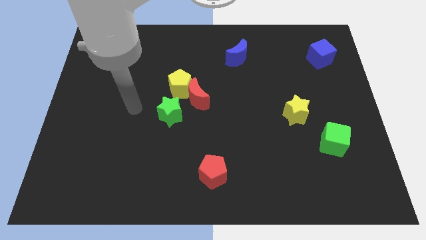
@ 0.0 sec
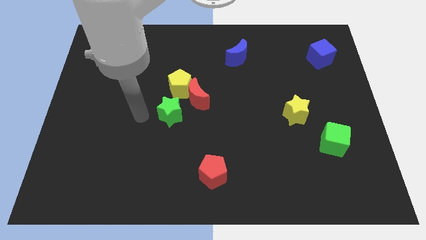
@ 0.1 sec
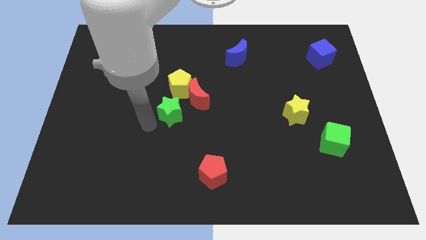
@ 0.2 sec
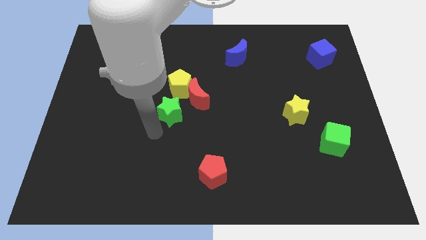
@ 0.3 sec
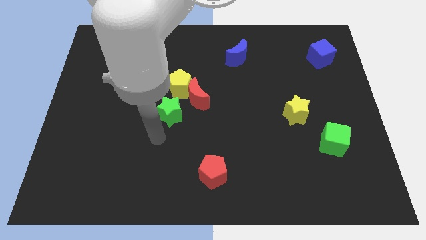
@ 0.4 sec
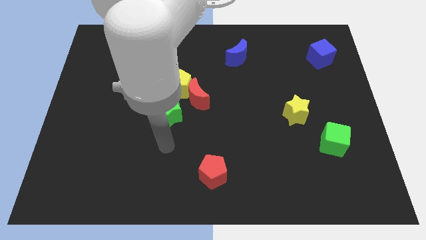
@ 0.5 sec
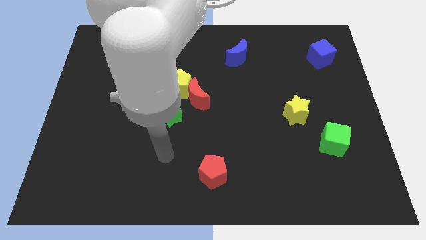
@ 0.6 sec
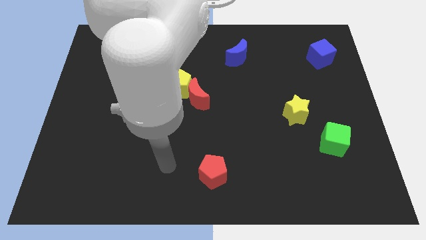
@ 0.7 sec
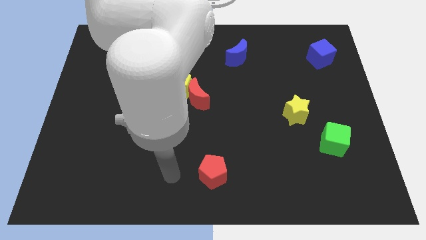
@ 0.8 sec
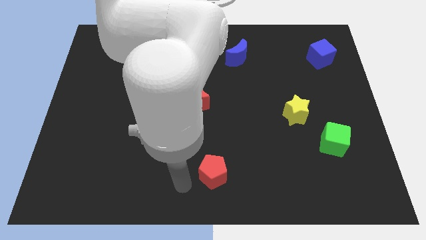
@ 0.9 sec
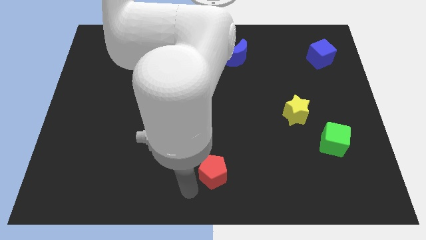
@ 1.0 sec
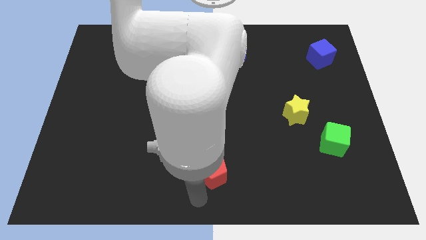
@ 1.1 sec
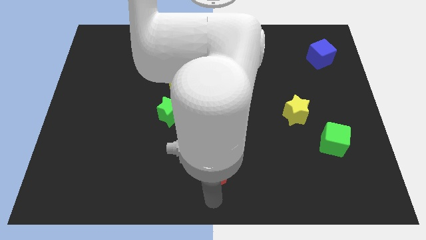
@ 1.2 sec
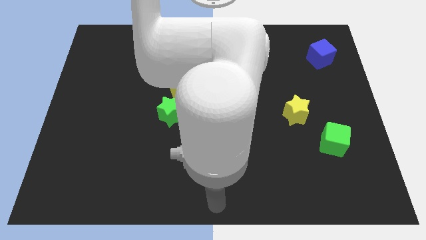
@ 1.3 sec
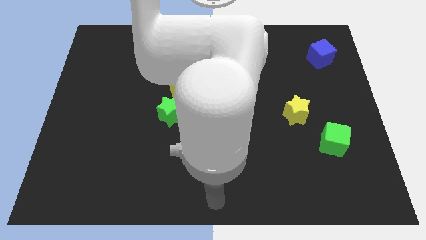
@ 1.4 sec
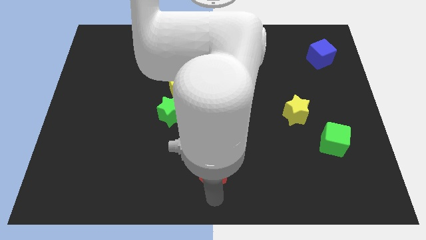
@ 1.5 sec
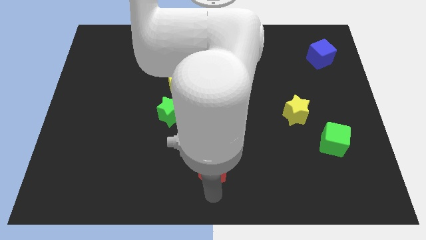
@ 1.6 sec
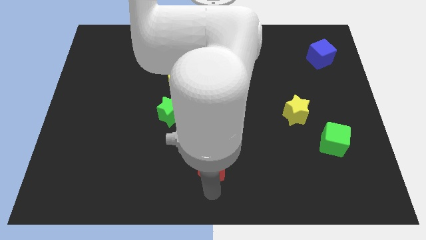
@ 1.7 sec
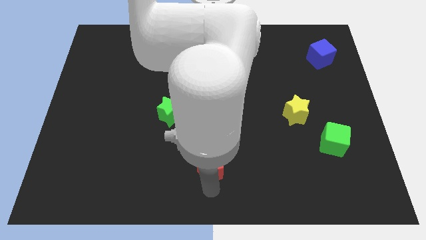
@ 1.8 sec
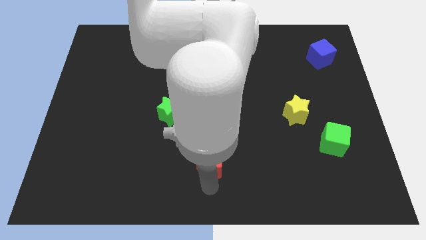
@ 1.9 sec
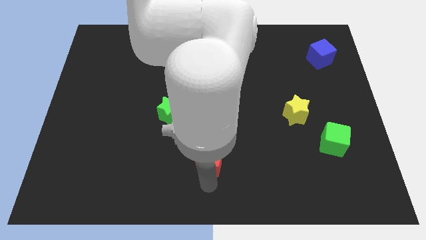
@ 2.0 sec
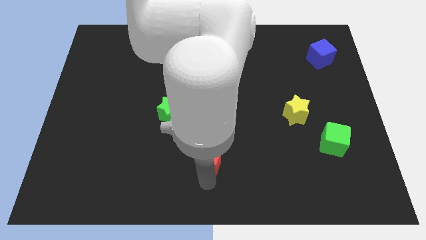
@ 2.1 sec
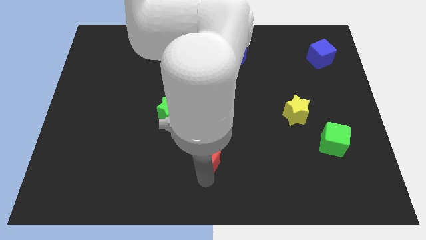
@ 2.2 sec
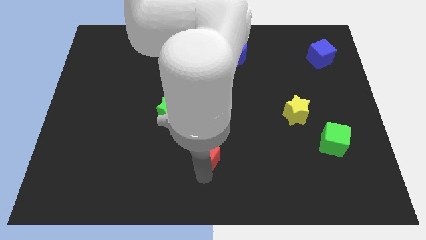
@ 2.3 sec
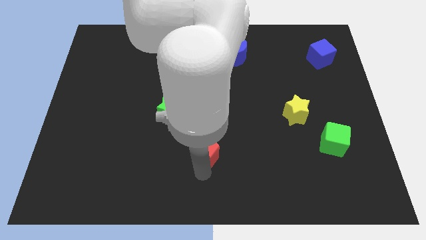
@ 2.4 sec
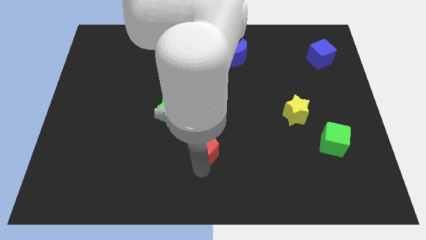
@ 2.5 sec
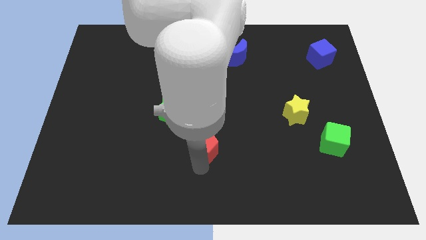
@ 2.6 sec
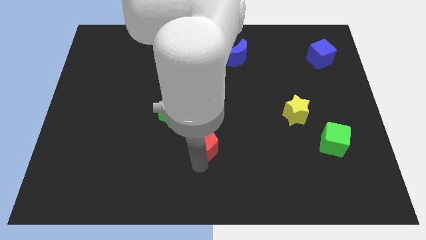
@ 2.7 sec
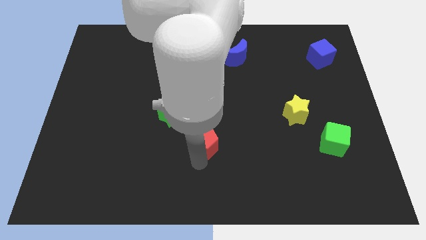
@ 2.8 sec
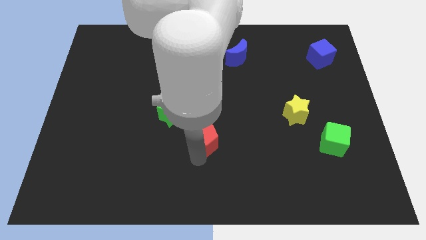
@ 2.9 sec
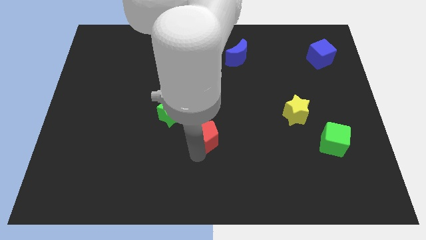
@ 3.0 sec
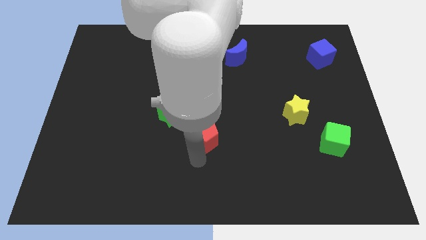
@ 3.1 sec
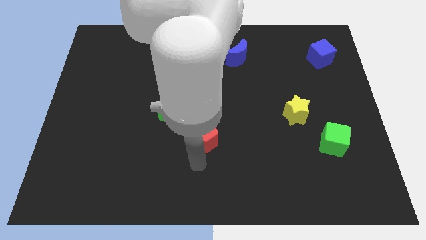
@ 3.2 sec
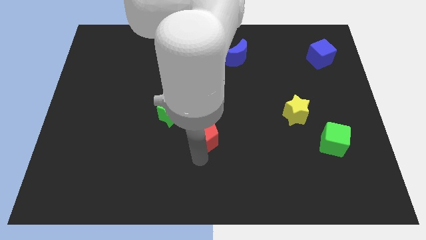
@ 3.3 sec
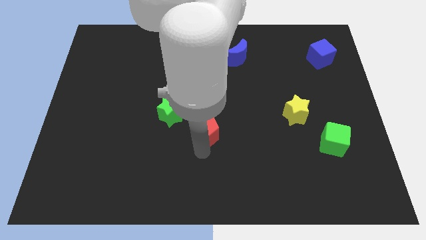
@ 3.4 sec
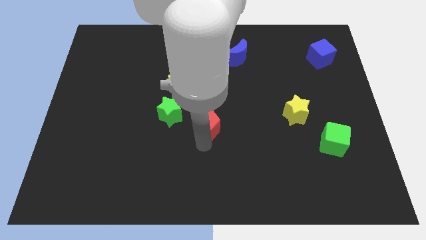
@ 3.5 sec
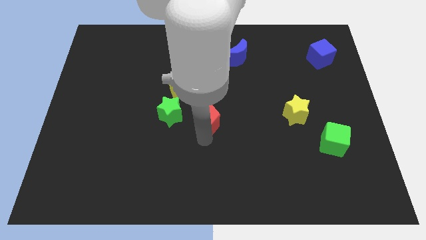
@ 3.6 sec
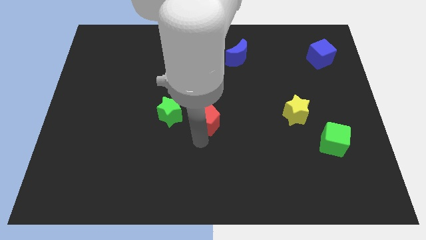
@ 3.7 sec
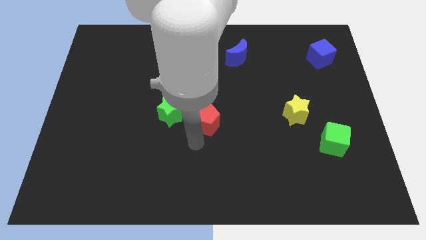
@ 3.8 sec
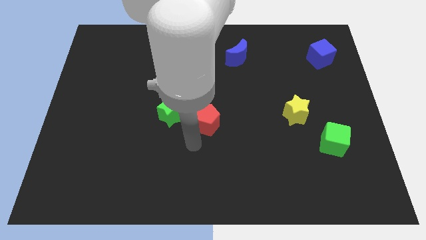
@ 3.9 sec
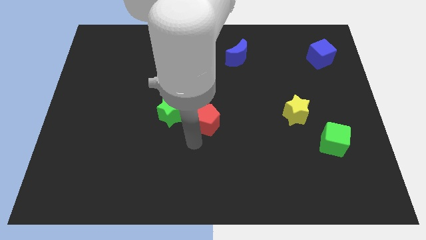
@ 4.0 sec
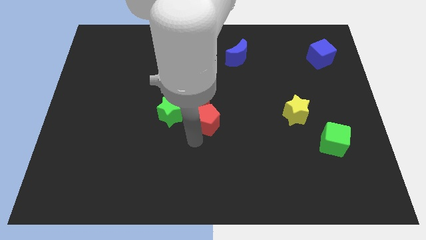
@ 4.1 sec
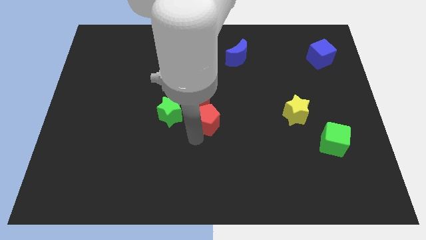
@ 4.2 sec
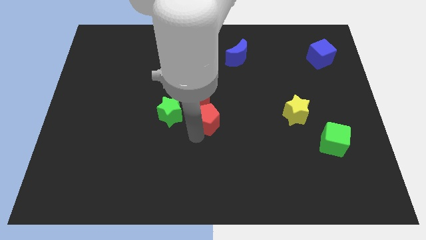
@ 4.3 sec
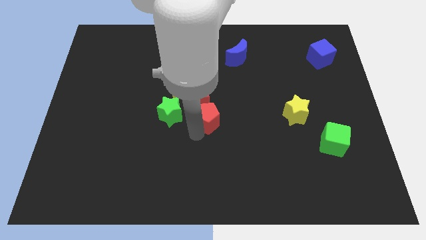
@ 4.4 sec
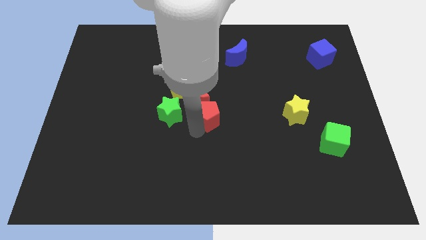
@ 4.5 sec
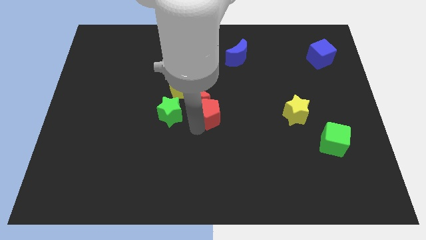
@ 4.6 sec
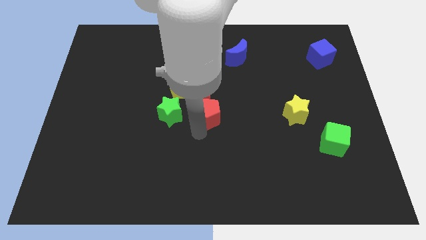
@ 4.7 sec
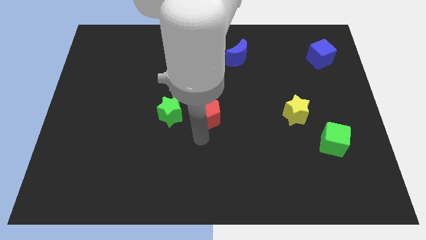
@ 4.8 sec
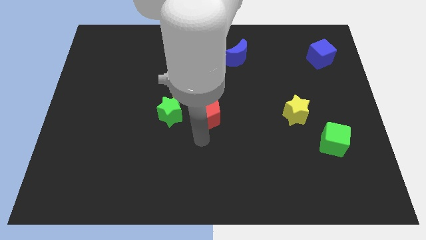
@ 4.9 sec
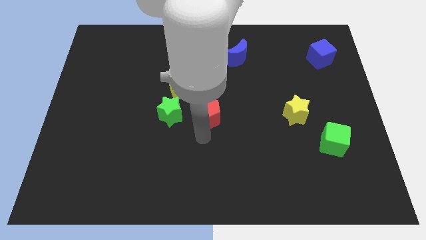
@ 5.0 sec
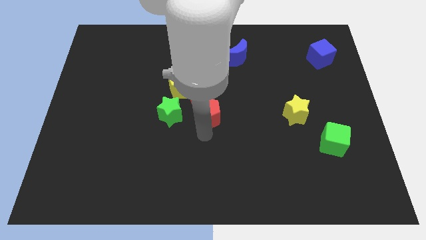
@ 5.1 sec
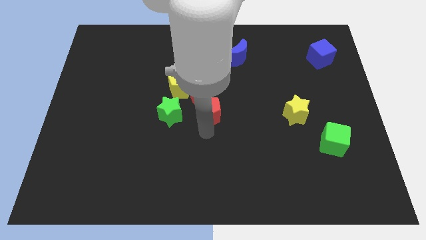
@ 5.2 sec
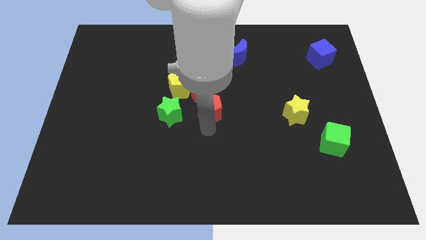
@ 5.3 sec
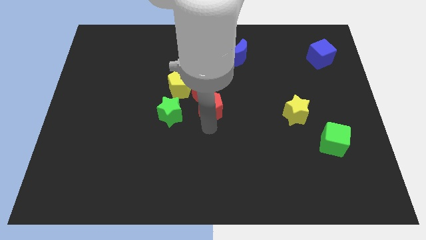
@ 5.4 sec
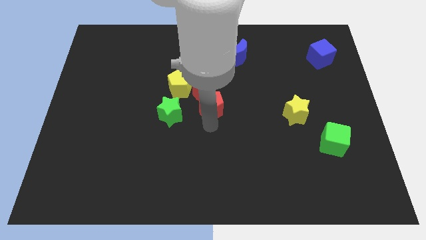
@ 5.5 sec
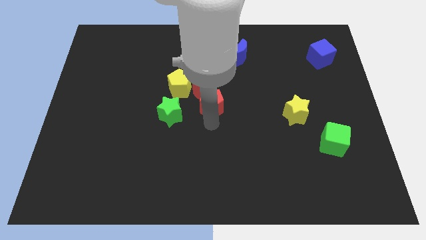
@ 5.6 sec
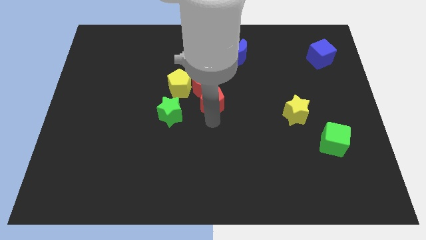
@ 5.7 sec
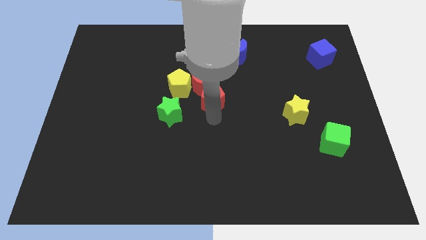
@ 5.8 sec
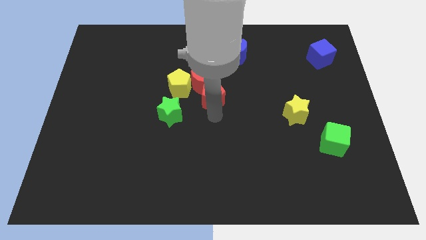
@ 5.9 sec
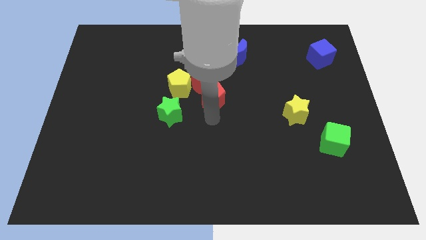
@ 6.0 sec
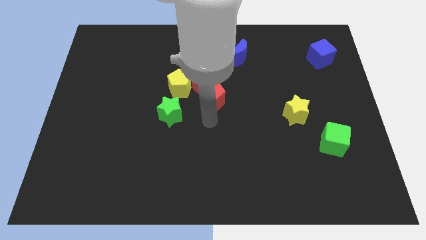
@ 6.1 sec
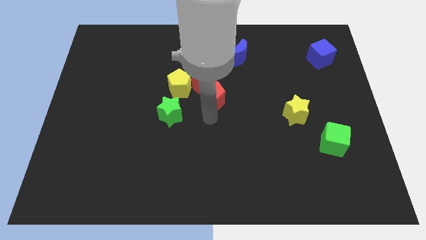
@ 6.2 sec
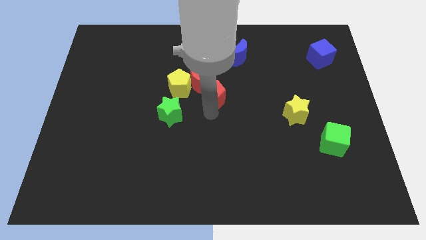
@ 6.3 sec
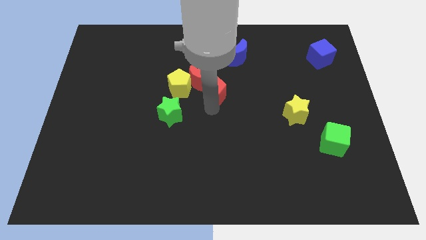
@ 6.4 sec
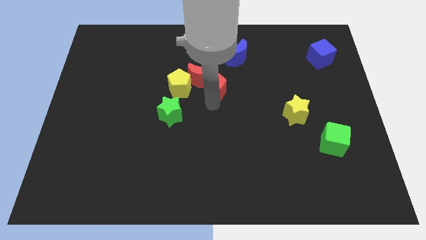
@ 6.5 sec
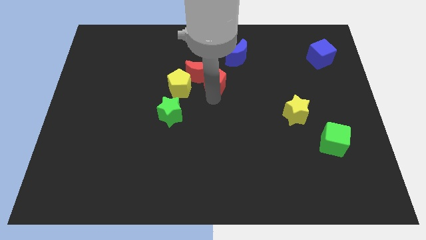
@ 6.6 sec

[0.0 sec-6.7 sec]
slide the red pentagon diagonally down and to the left of the blue moon

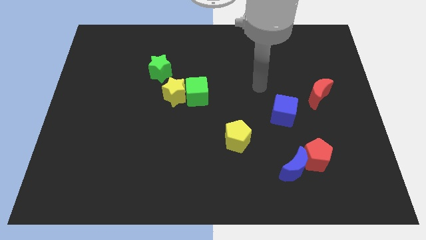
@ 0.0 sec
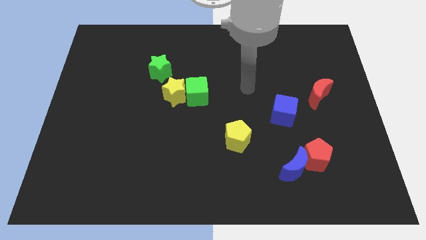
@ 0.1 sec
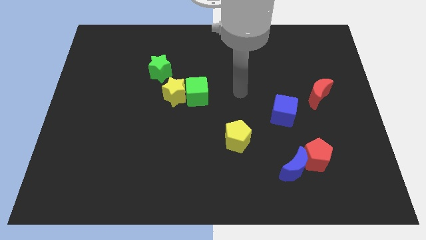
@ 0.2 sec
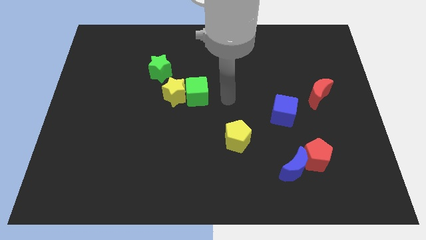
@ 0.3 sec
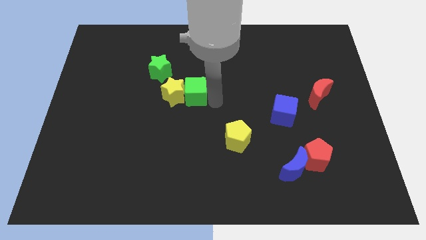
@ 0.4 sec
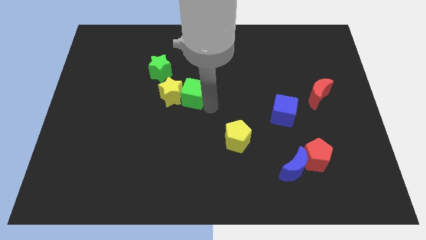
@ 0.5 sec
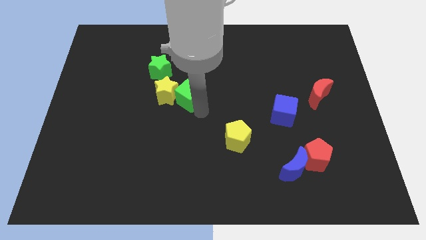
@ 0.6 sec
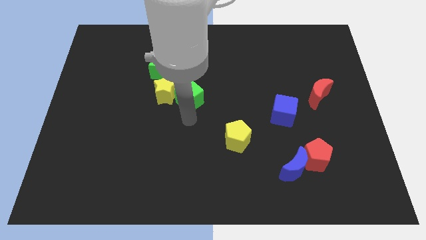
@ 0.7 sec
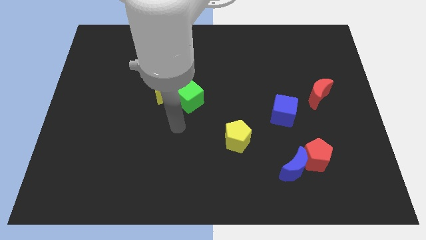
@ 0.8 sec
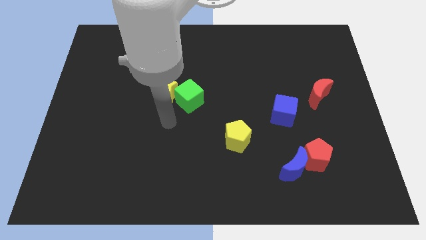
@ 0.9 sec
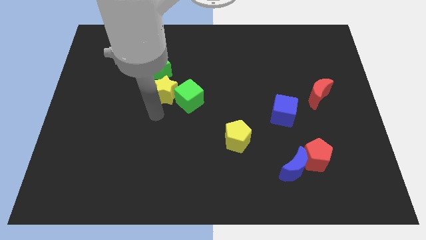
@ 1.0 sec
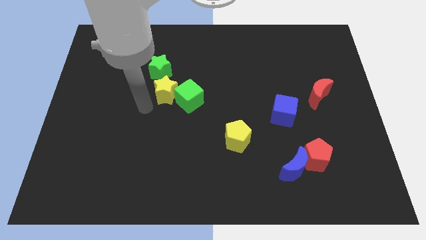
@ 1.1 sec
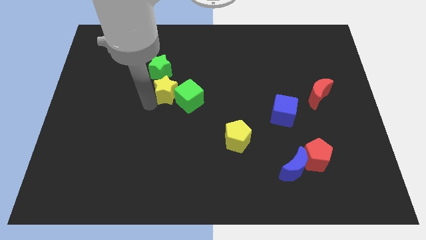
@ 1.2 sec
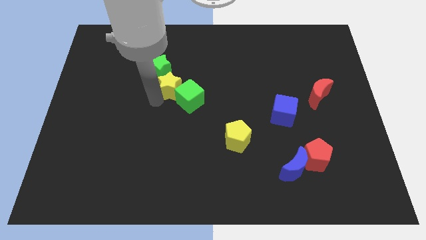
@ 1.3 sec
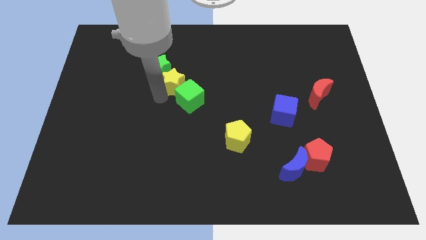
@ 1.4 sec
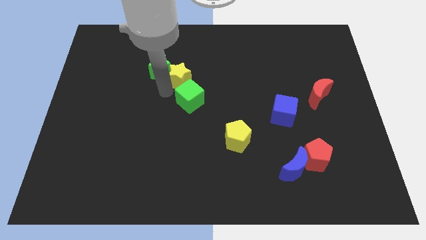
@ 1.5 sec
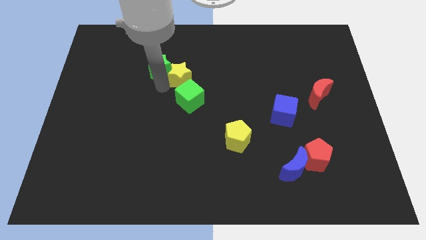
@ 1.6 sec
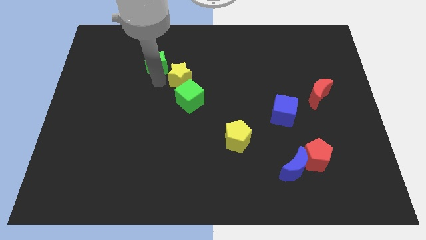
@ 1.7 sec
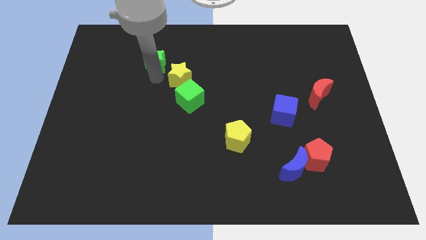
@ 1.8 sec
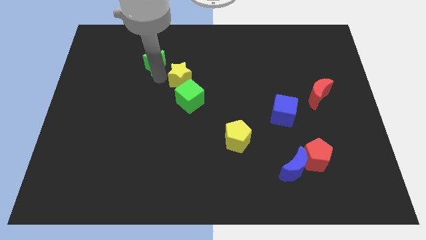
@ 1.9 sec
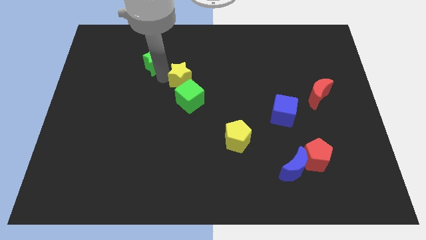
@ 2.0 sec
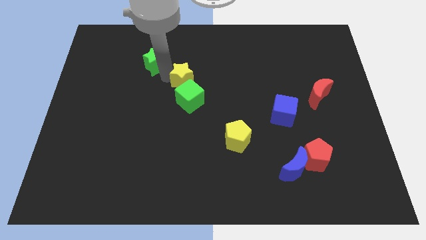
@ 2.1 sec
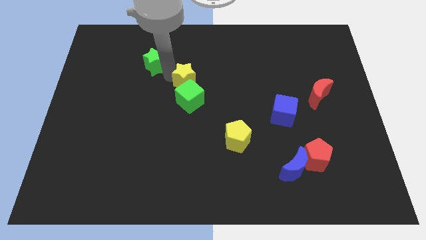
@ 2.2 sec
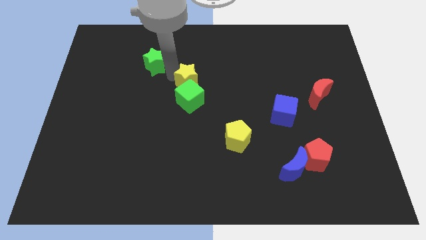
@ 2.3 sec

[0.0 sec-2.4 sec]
move the yellow star diagonally up and to the right of the green cube
